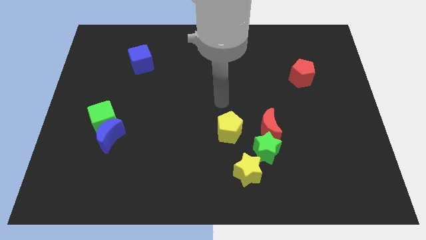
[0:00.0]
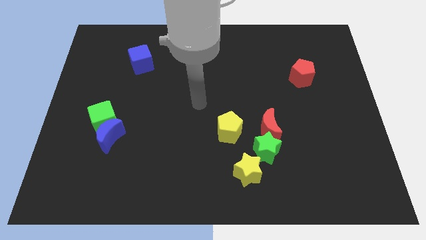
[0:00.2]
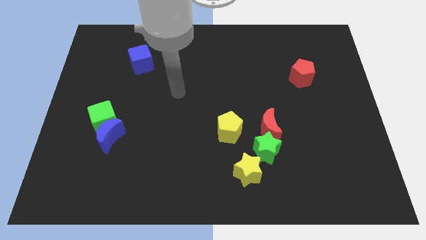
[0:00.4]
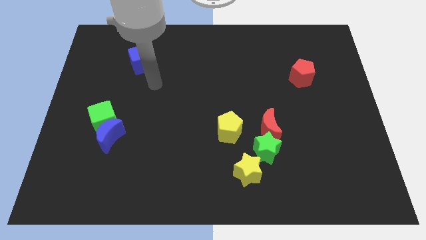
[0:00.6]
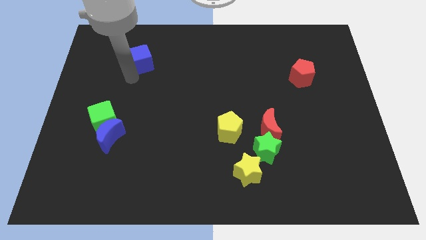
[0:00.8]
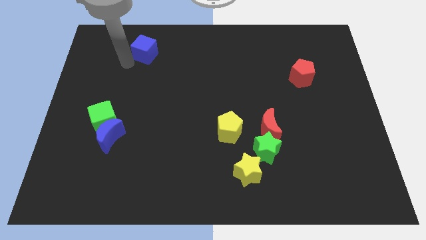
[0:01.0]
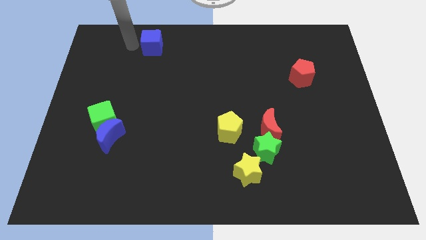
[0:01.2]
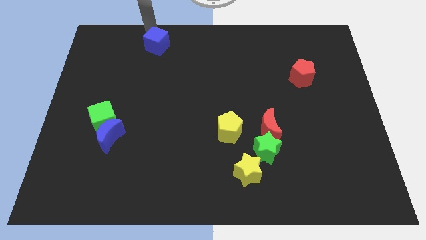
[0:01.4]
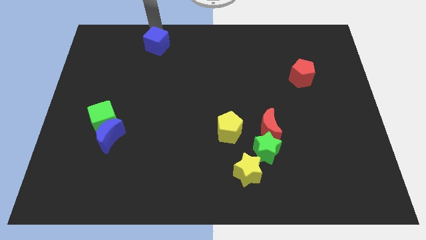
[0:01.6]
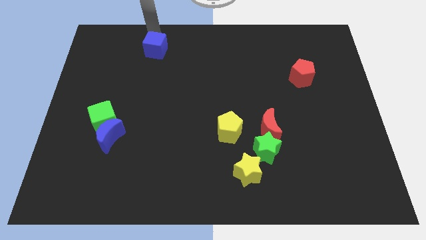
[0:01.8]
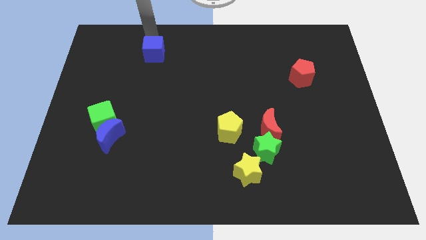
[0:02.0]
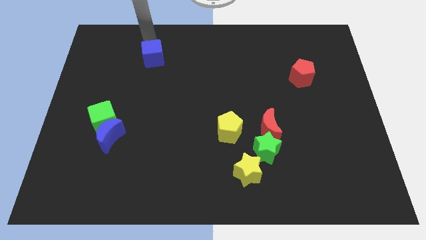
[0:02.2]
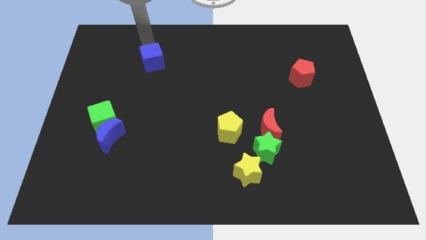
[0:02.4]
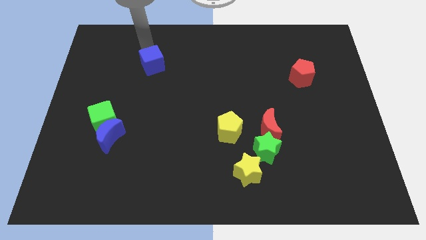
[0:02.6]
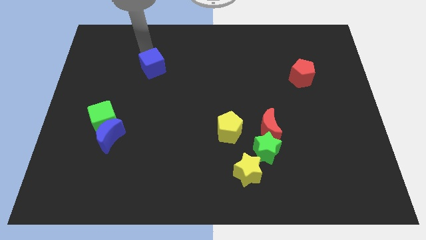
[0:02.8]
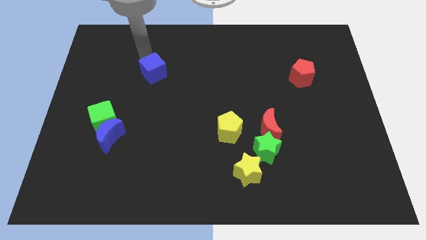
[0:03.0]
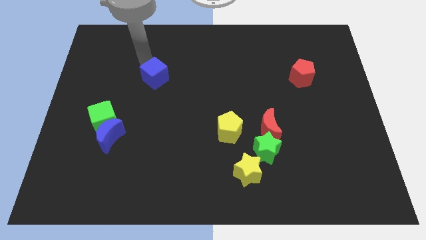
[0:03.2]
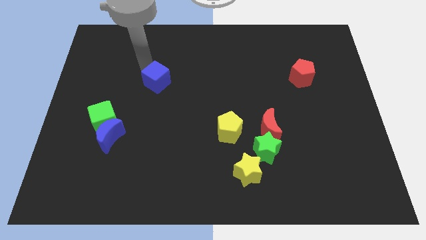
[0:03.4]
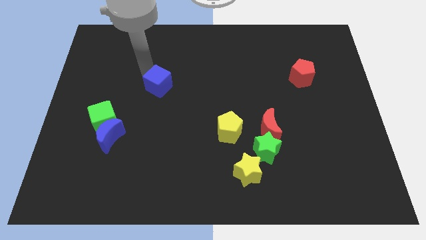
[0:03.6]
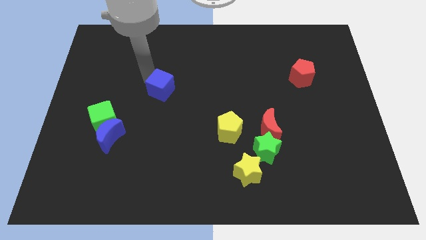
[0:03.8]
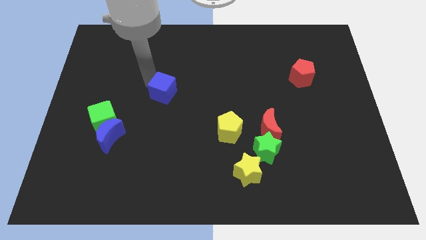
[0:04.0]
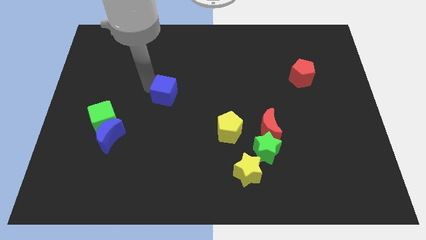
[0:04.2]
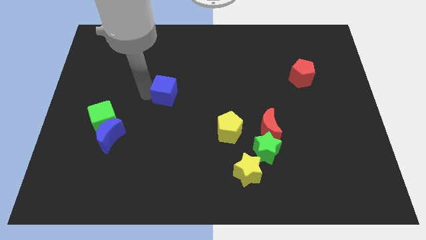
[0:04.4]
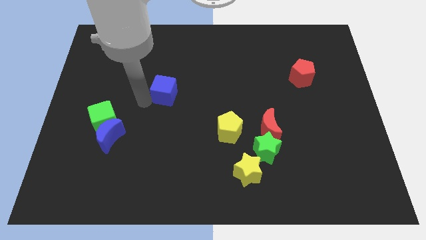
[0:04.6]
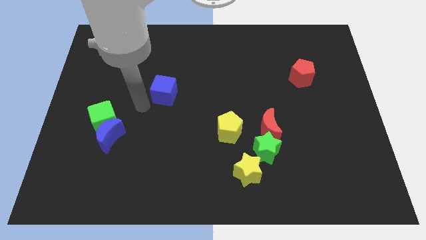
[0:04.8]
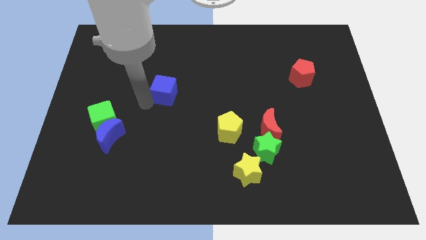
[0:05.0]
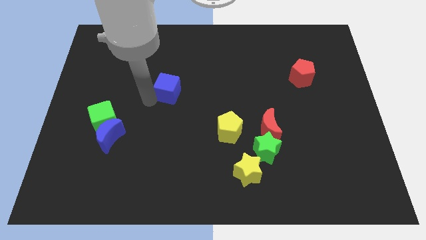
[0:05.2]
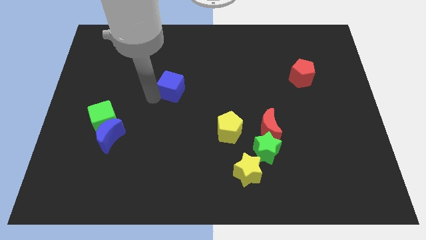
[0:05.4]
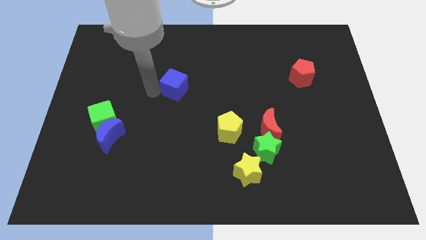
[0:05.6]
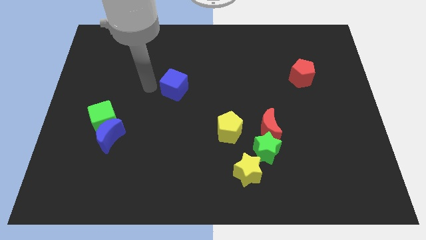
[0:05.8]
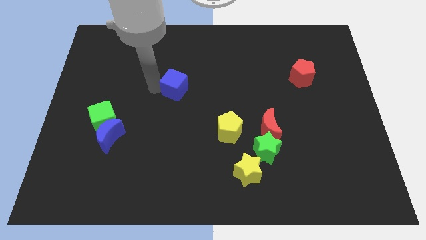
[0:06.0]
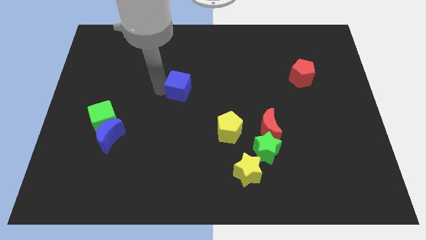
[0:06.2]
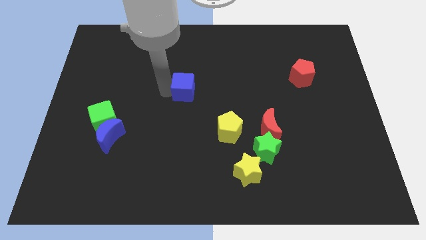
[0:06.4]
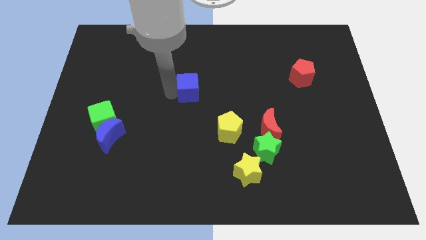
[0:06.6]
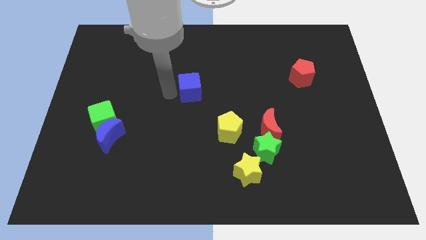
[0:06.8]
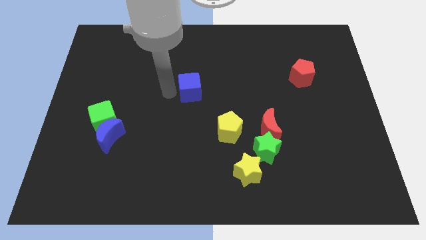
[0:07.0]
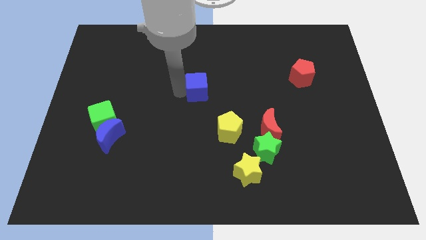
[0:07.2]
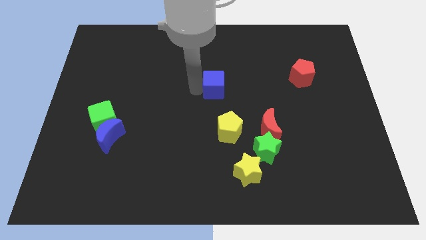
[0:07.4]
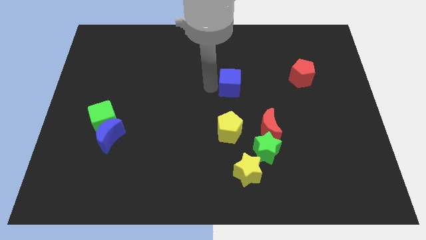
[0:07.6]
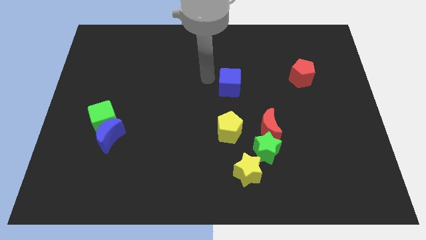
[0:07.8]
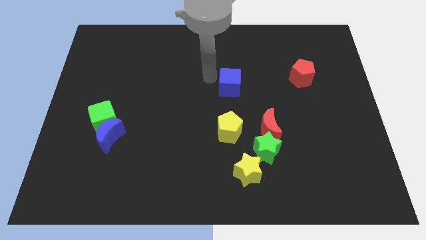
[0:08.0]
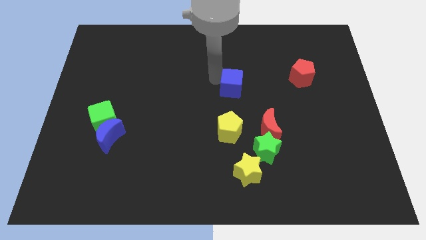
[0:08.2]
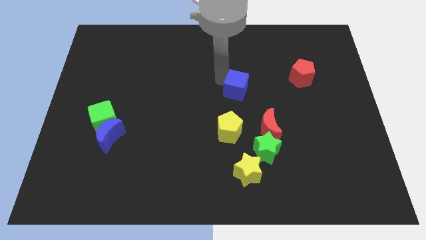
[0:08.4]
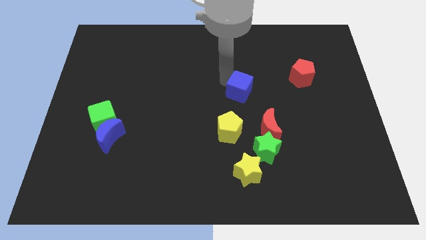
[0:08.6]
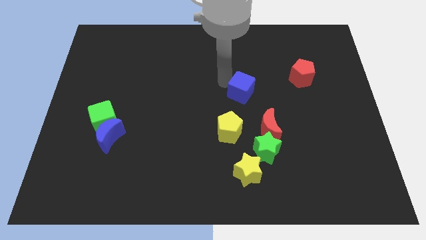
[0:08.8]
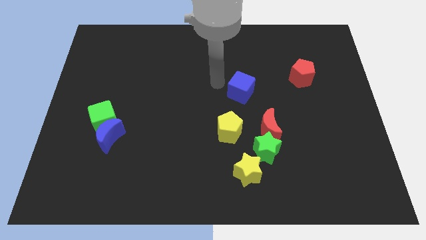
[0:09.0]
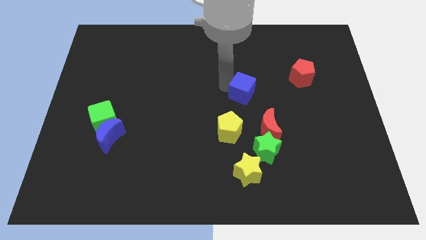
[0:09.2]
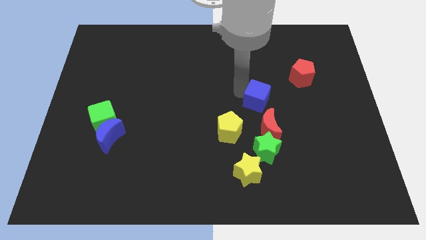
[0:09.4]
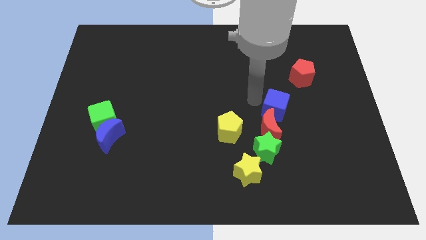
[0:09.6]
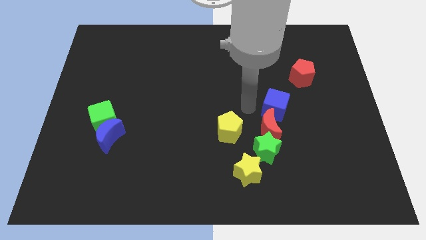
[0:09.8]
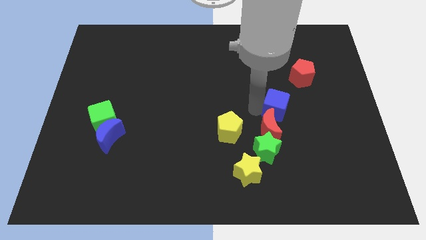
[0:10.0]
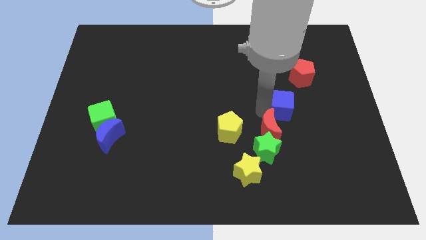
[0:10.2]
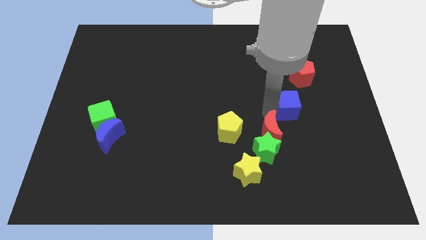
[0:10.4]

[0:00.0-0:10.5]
push the blue cube below the red pentagon

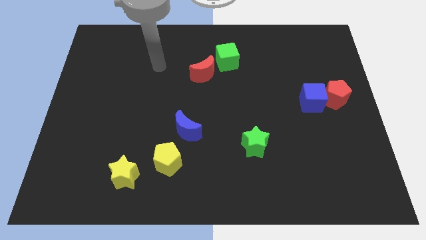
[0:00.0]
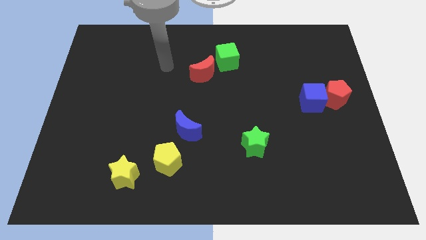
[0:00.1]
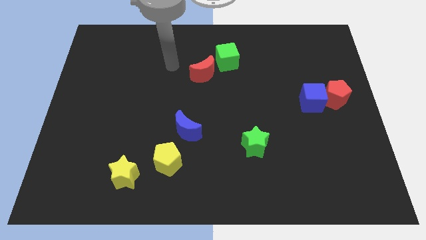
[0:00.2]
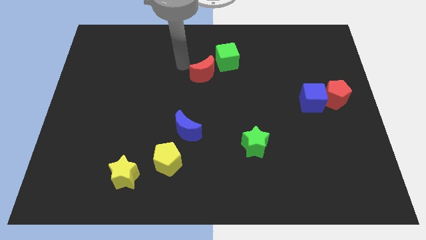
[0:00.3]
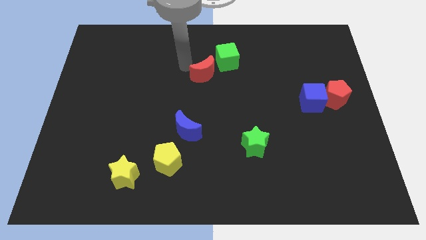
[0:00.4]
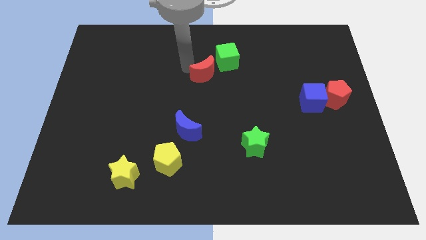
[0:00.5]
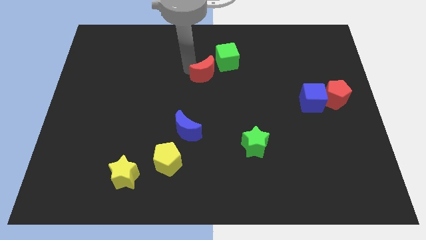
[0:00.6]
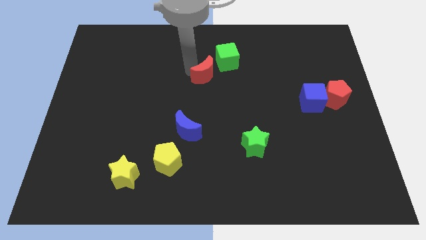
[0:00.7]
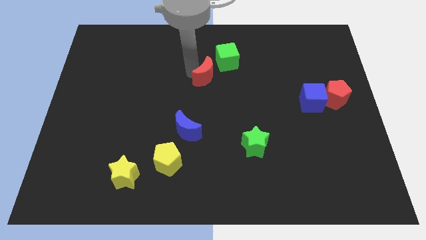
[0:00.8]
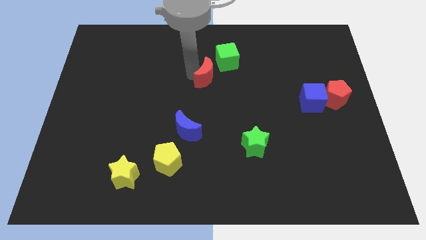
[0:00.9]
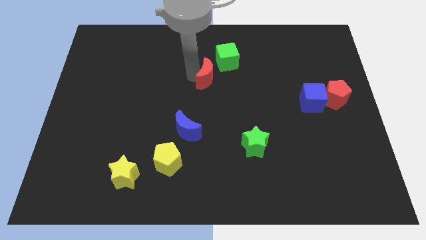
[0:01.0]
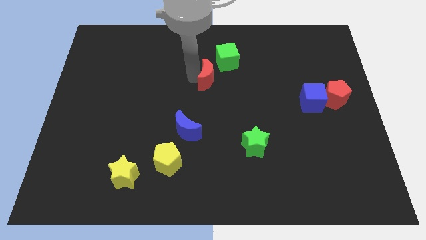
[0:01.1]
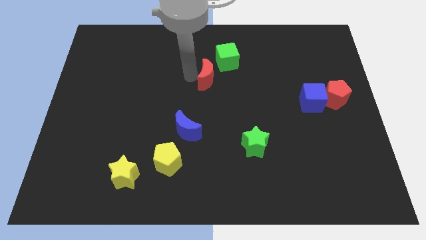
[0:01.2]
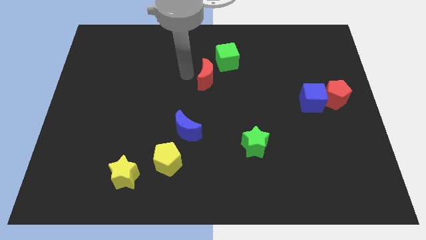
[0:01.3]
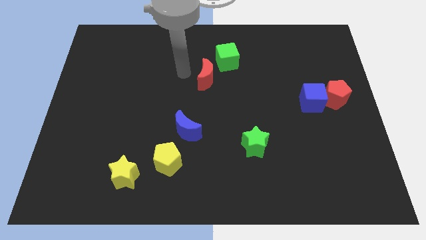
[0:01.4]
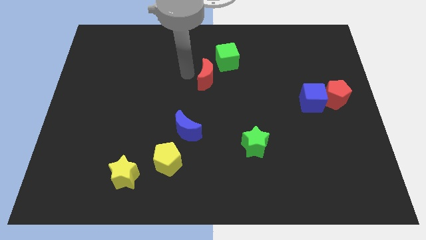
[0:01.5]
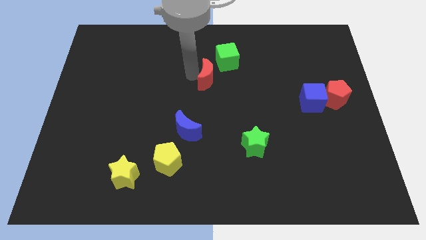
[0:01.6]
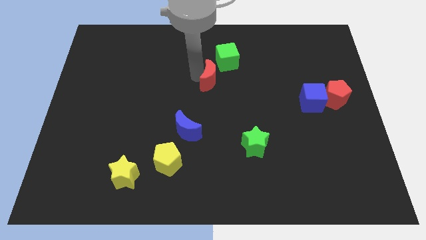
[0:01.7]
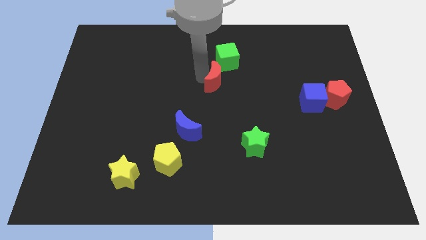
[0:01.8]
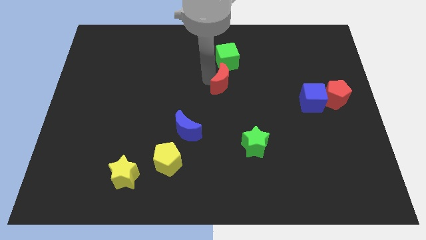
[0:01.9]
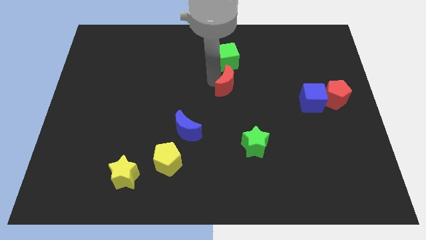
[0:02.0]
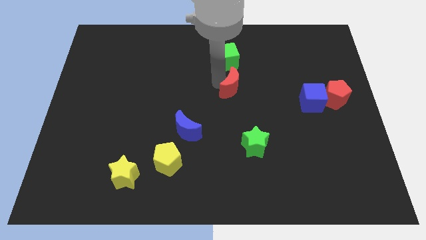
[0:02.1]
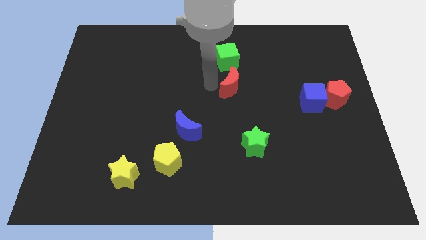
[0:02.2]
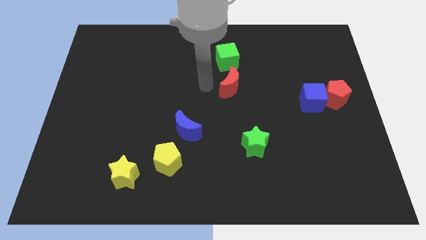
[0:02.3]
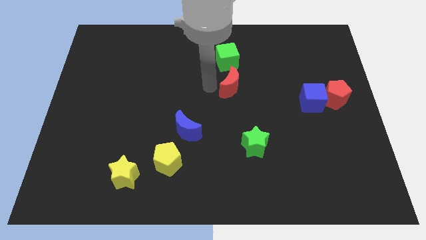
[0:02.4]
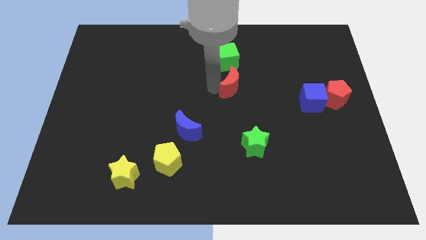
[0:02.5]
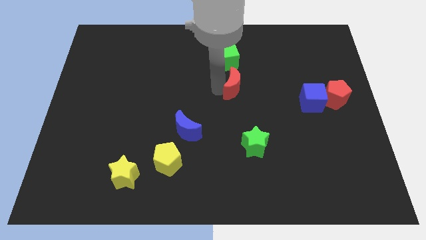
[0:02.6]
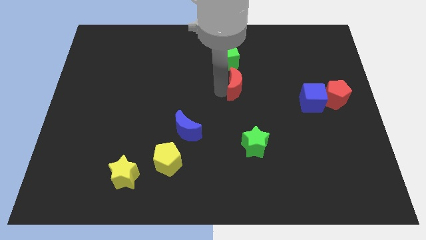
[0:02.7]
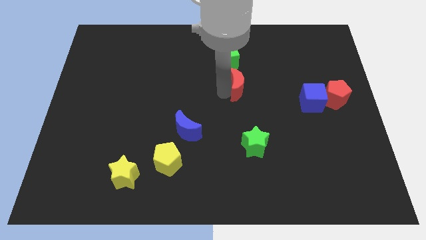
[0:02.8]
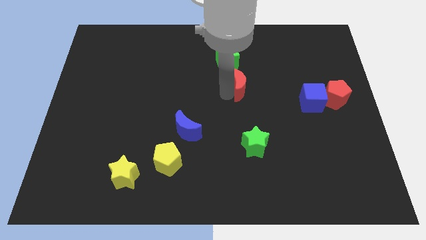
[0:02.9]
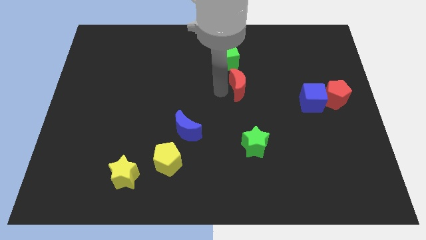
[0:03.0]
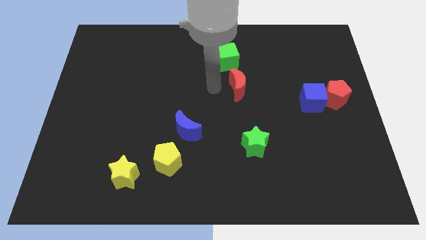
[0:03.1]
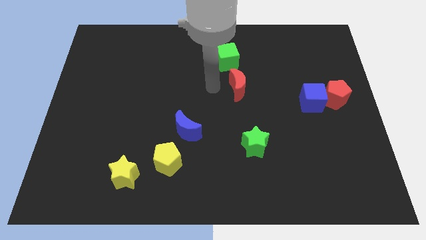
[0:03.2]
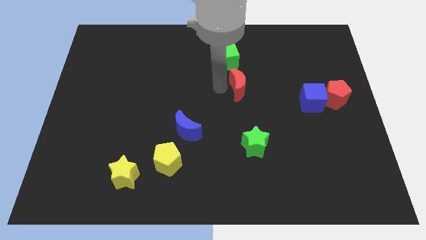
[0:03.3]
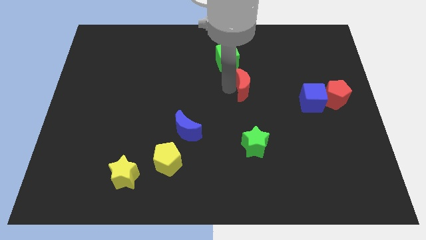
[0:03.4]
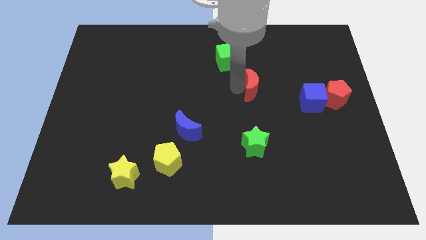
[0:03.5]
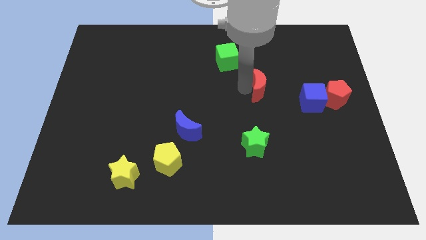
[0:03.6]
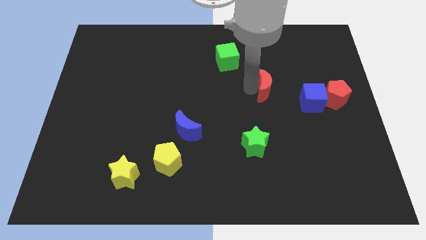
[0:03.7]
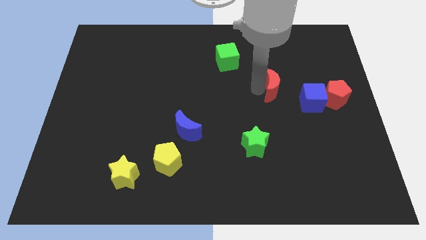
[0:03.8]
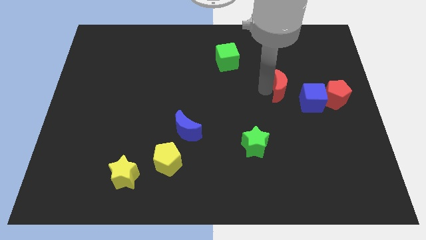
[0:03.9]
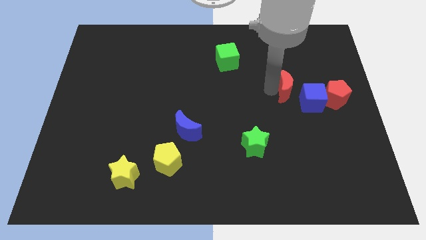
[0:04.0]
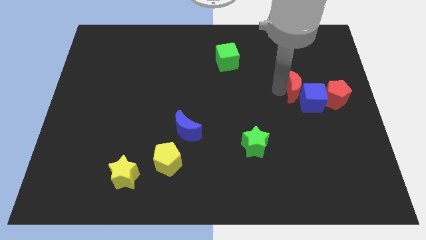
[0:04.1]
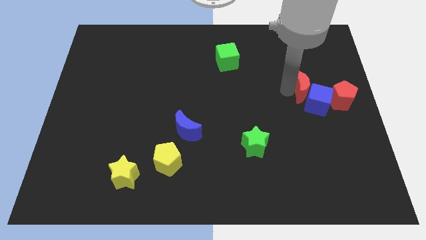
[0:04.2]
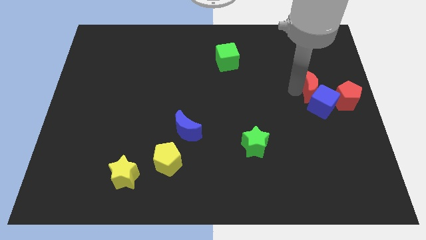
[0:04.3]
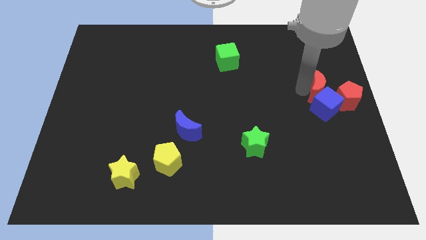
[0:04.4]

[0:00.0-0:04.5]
move the red moon diagonally up and to the right of the blue cube
